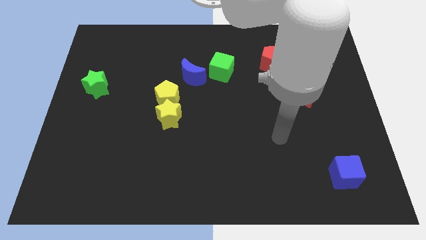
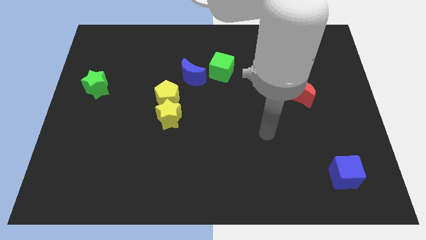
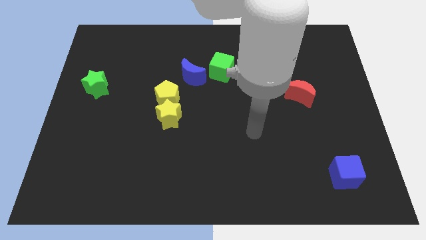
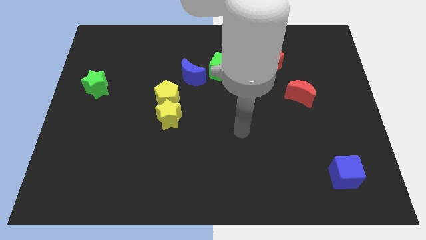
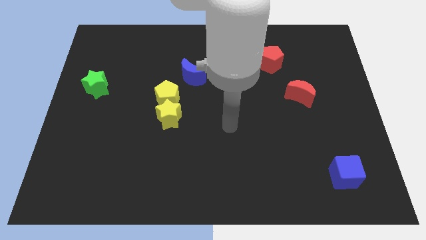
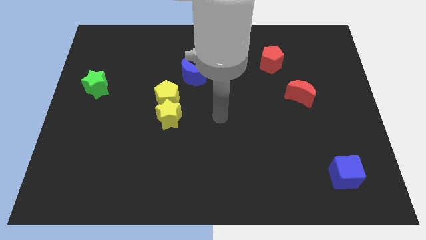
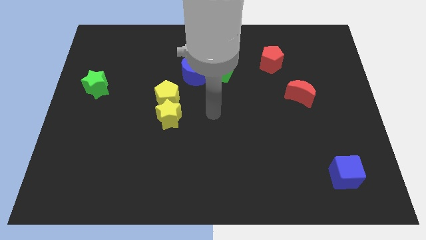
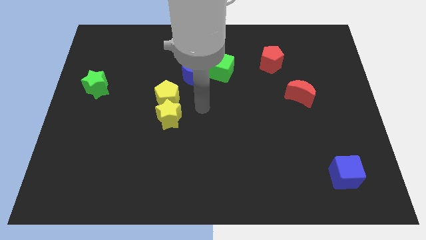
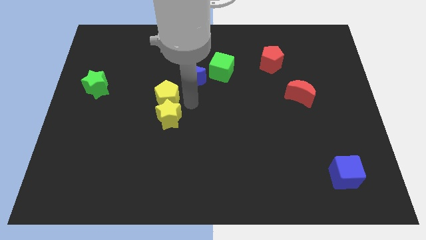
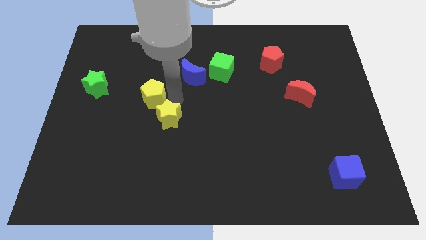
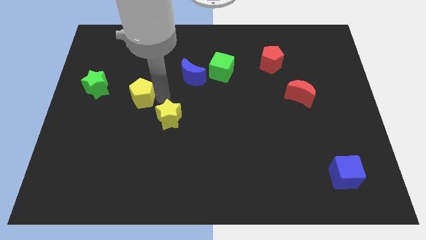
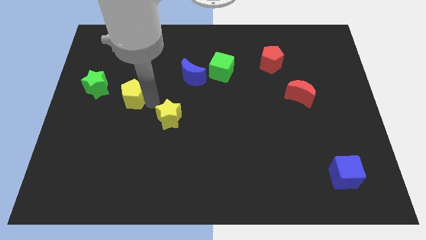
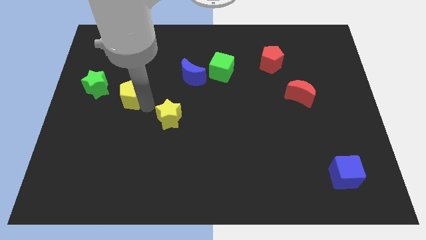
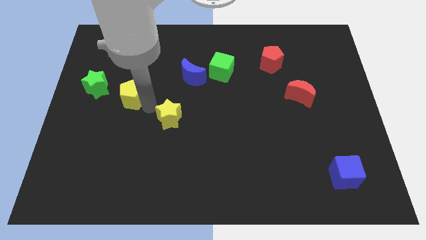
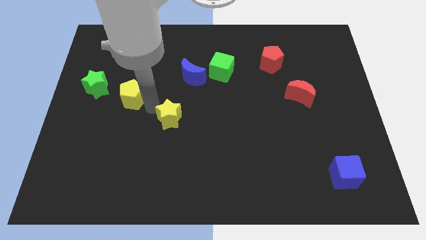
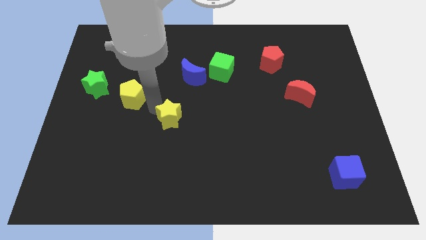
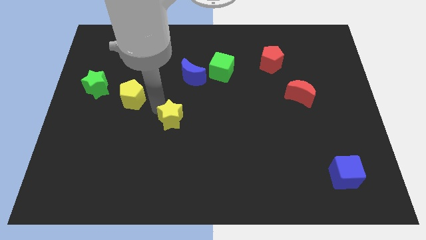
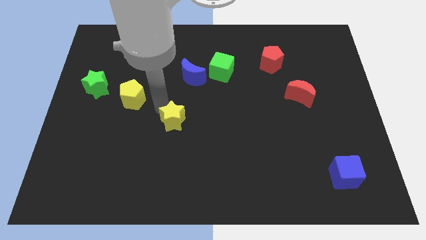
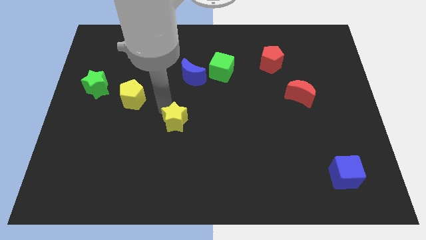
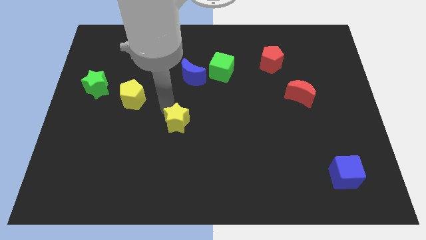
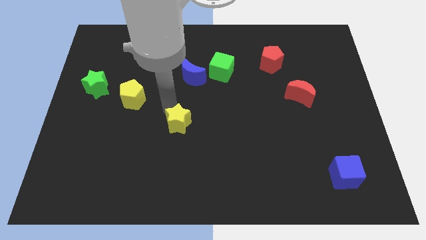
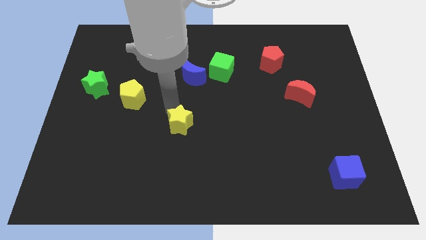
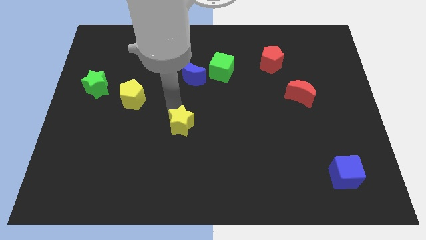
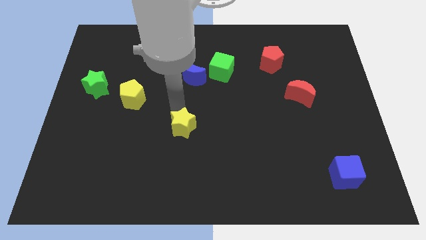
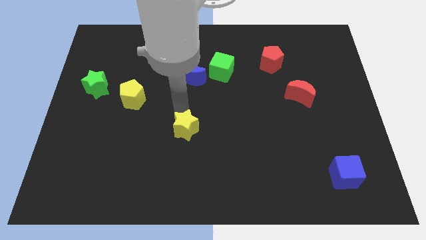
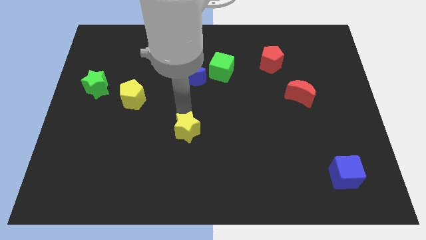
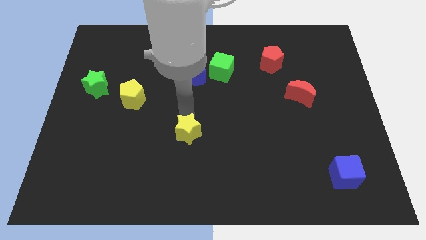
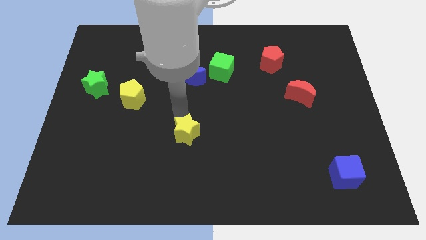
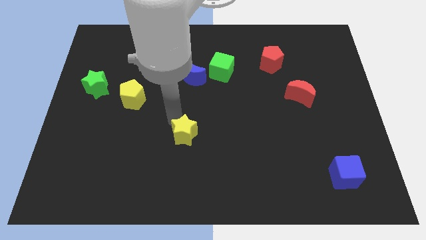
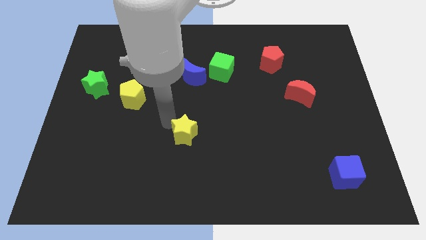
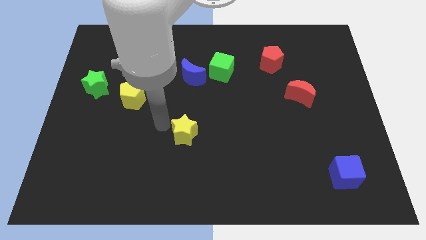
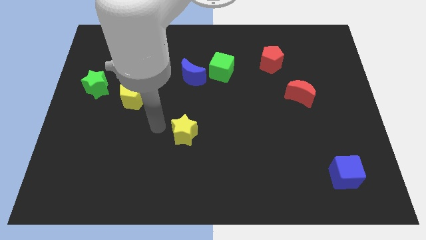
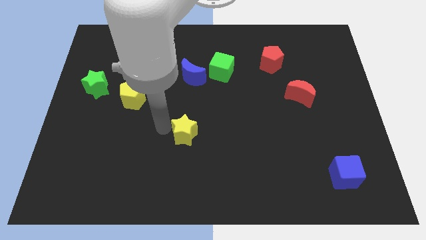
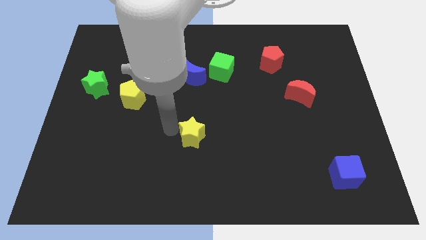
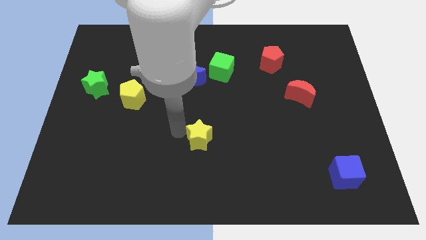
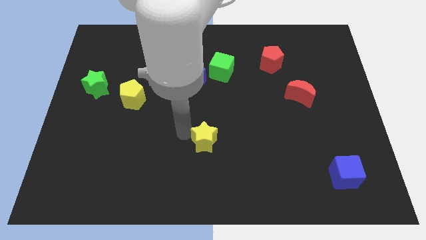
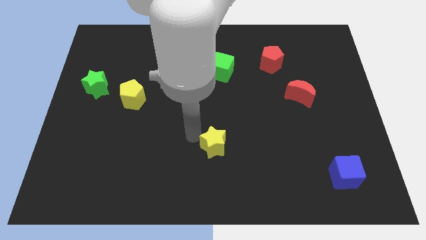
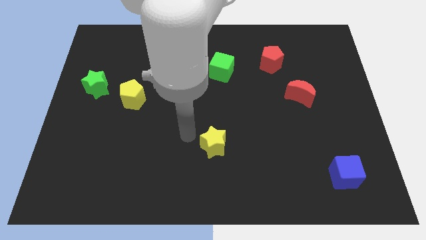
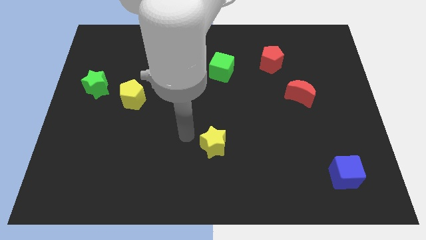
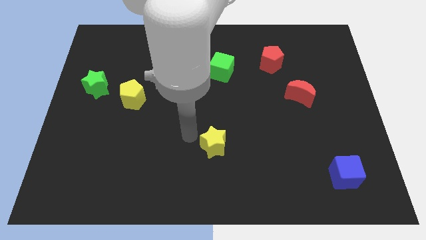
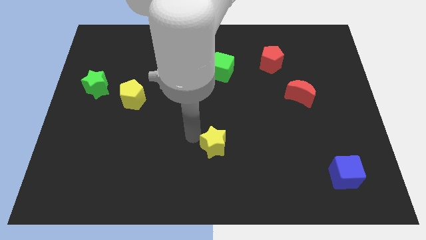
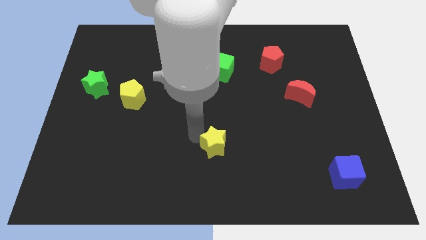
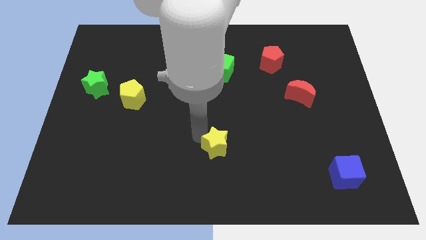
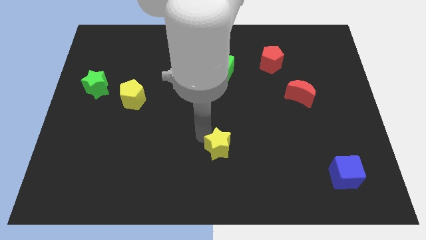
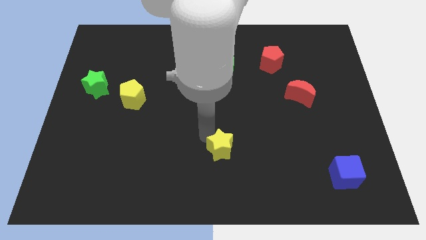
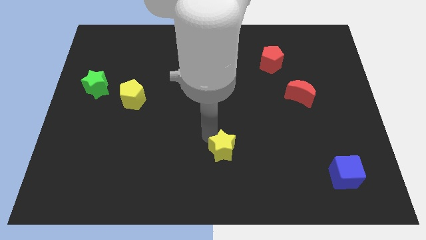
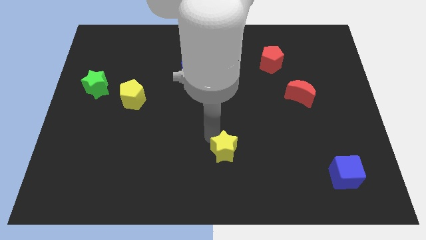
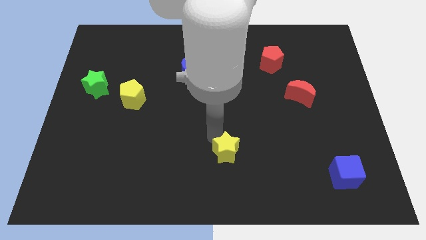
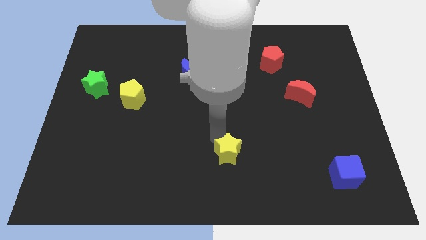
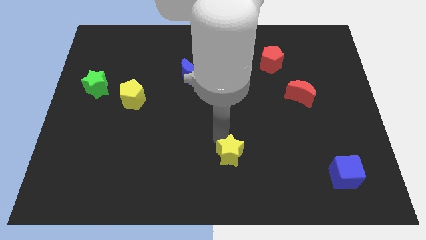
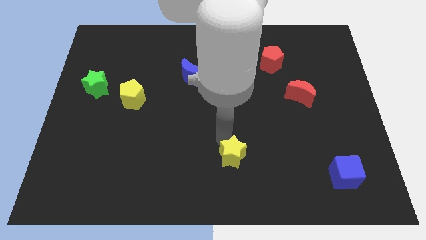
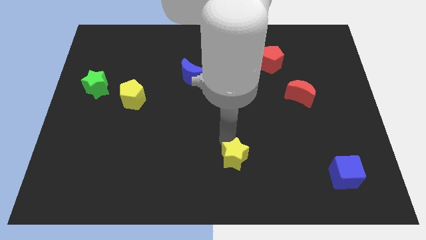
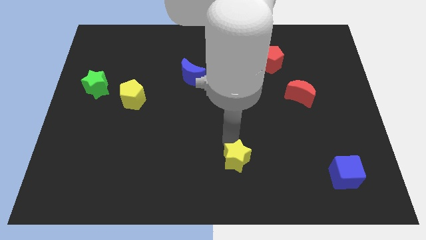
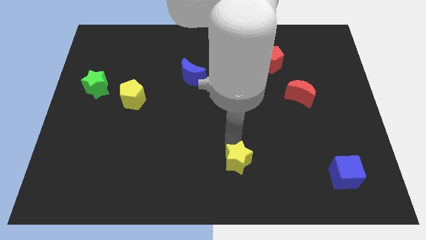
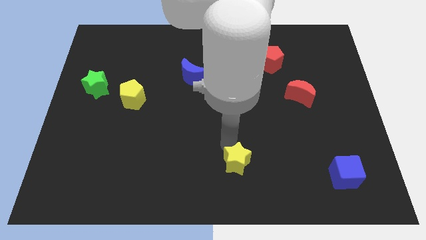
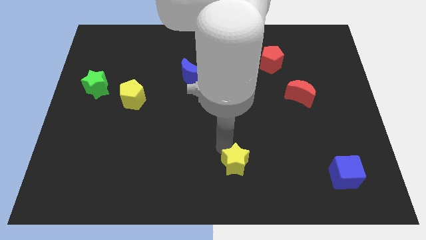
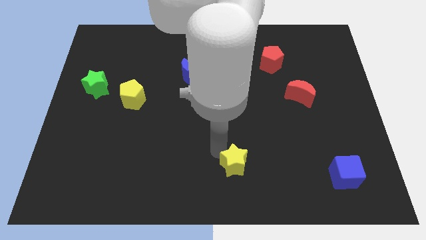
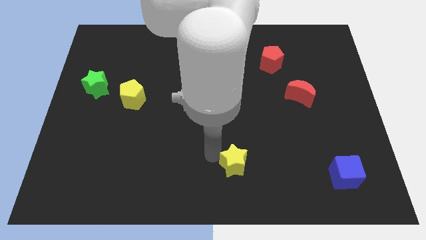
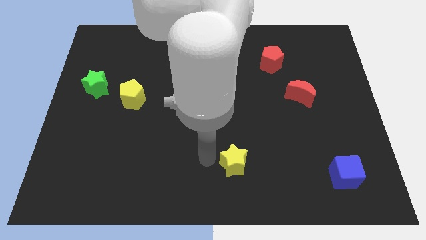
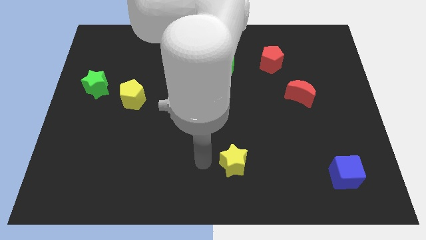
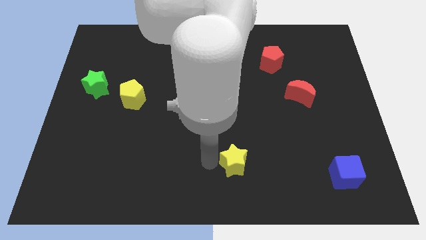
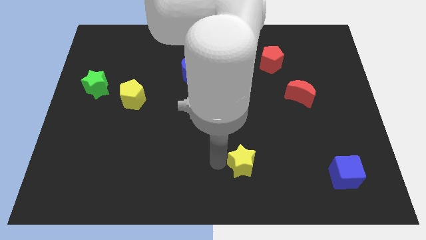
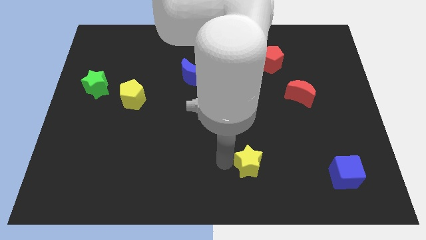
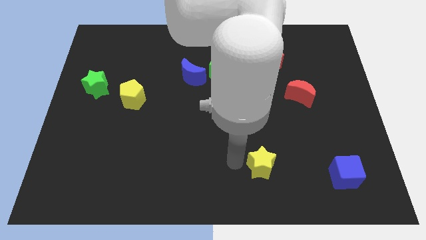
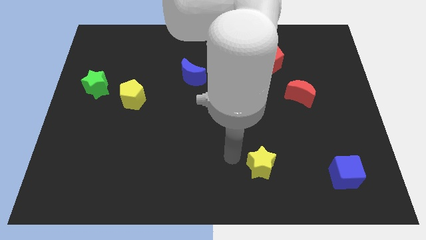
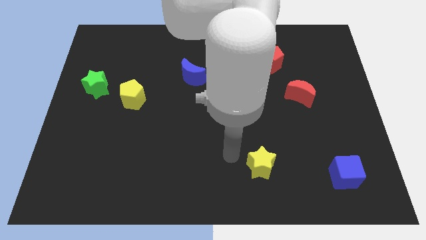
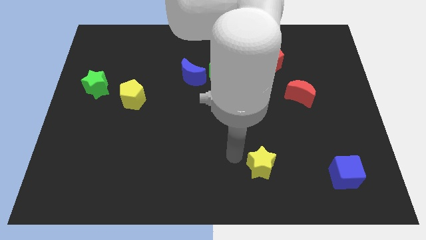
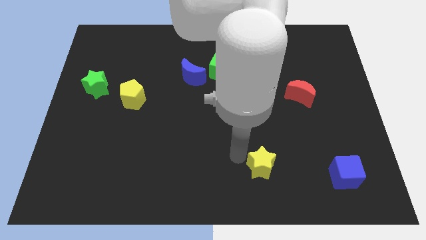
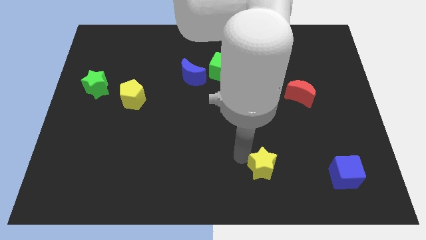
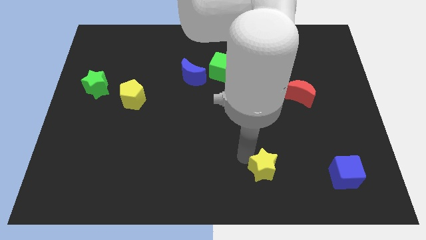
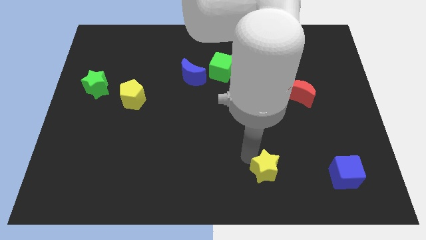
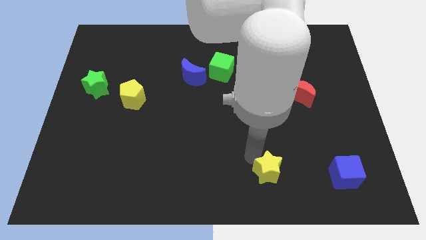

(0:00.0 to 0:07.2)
slide the yellow star left of the blue cube
